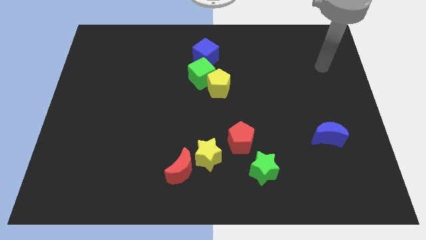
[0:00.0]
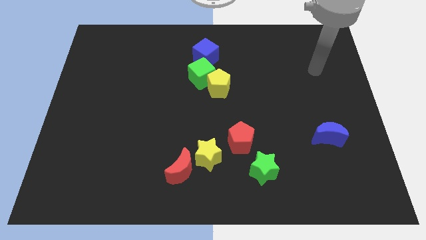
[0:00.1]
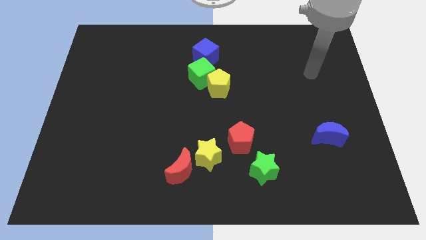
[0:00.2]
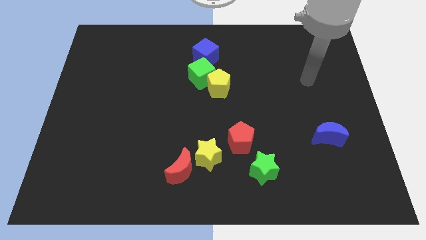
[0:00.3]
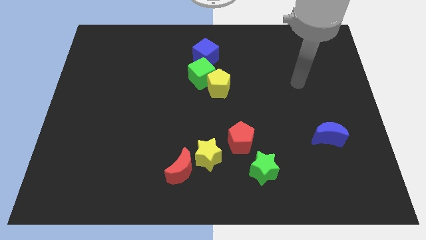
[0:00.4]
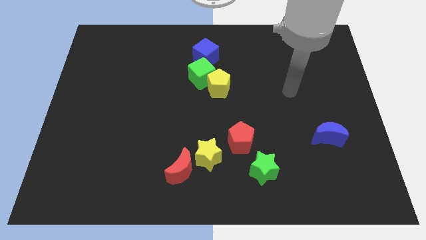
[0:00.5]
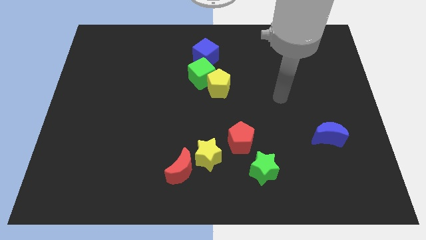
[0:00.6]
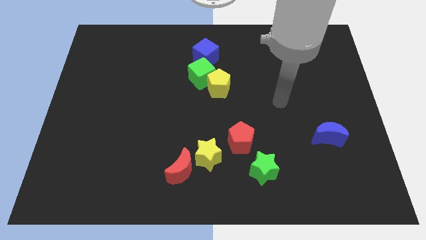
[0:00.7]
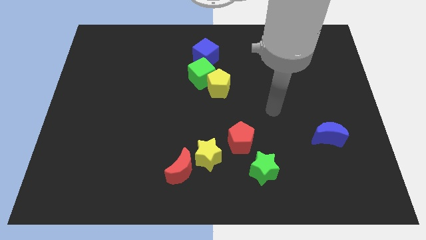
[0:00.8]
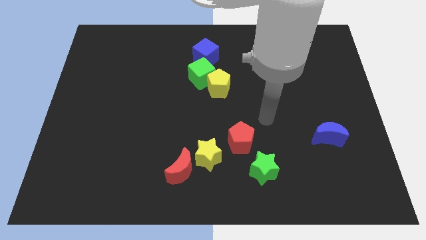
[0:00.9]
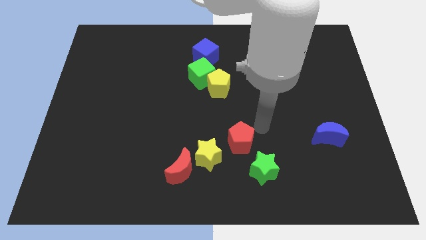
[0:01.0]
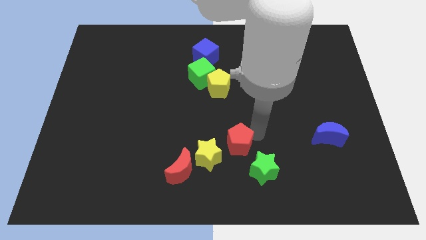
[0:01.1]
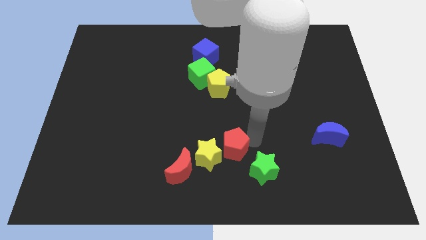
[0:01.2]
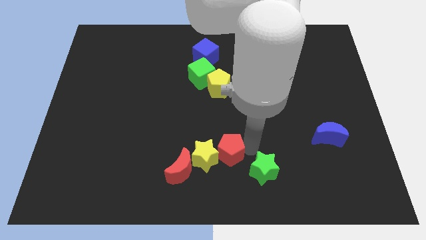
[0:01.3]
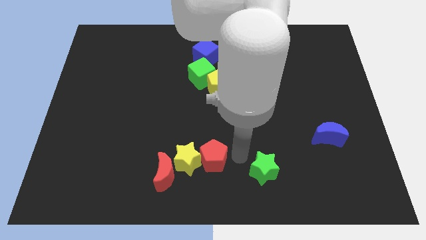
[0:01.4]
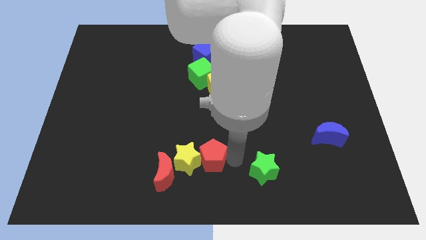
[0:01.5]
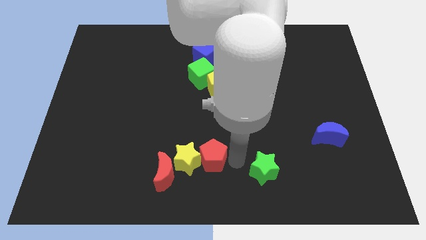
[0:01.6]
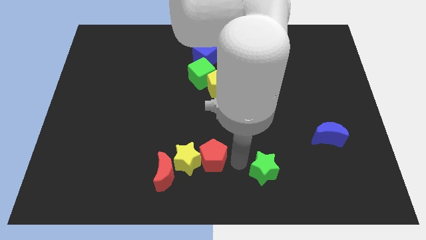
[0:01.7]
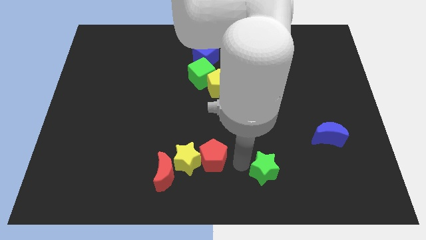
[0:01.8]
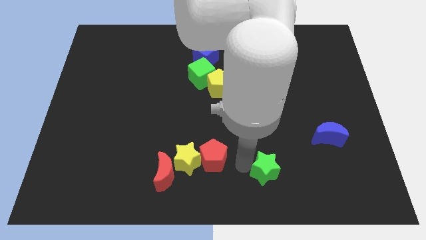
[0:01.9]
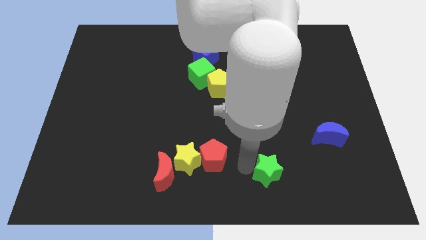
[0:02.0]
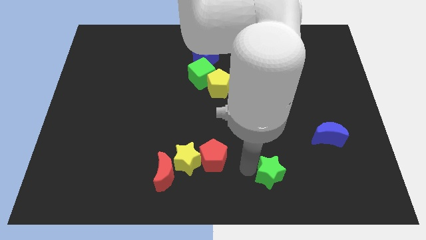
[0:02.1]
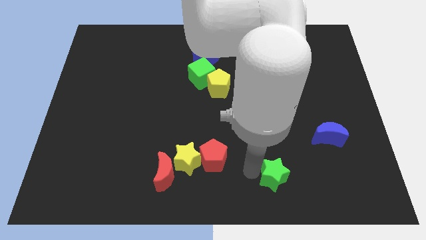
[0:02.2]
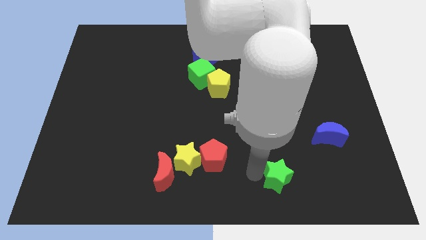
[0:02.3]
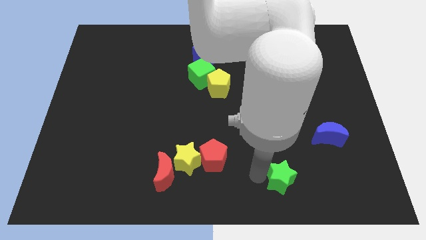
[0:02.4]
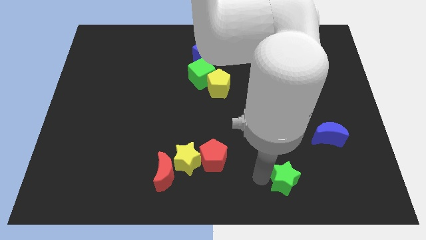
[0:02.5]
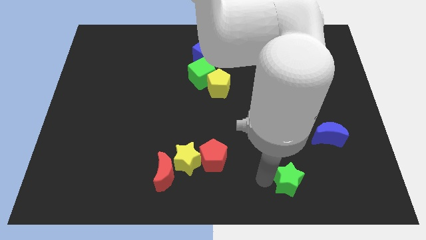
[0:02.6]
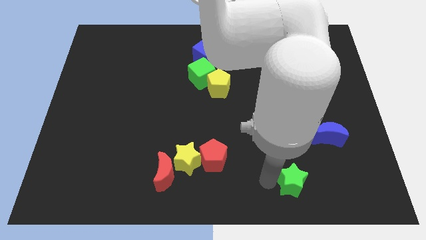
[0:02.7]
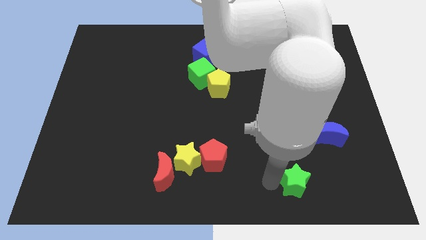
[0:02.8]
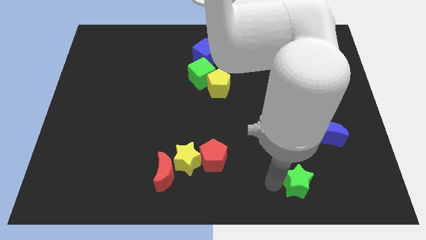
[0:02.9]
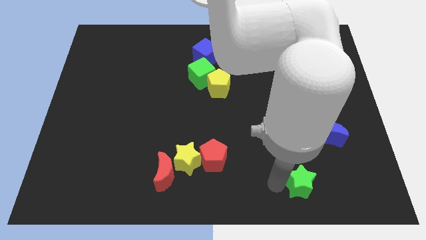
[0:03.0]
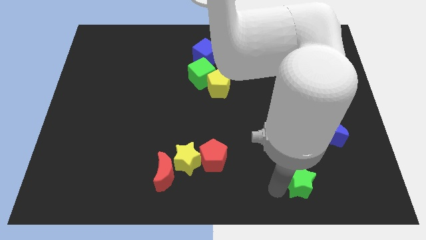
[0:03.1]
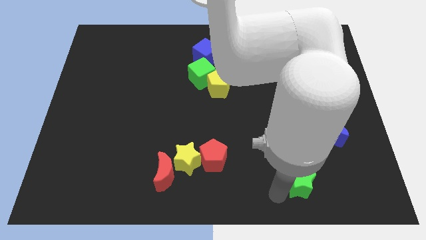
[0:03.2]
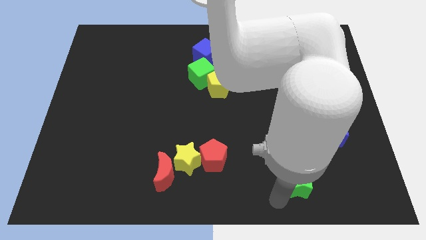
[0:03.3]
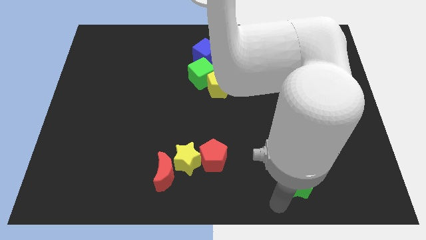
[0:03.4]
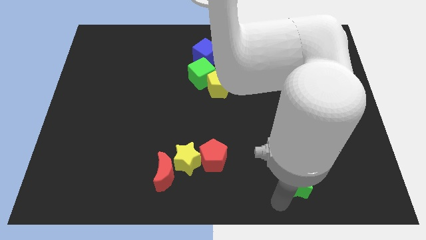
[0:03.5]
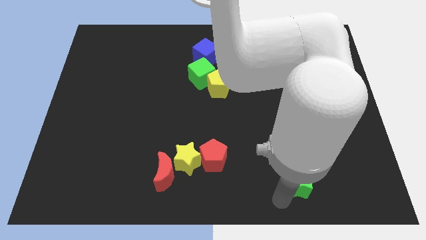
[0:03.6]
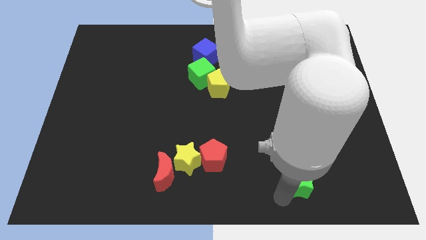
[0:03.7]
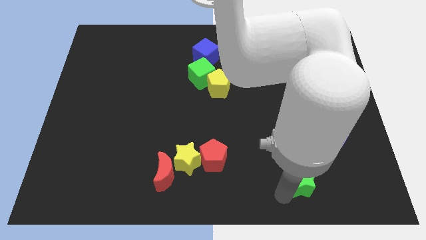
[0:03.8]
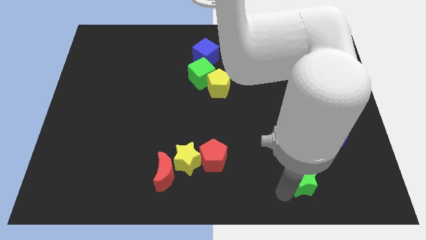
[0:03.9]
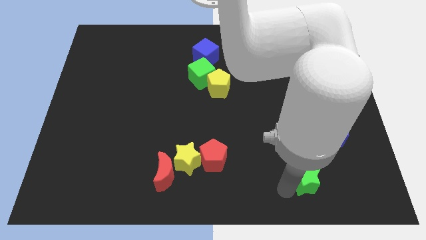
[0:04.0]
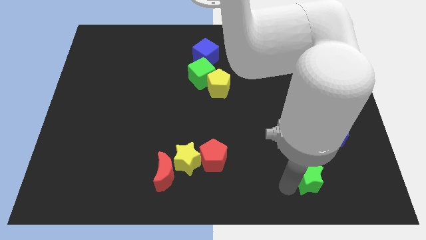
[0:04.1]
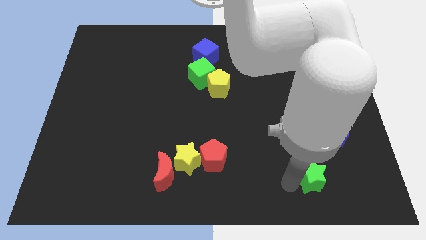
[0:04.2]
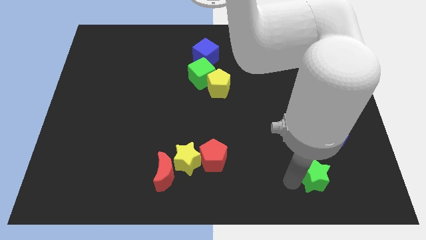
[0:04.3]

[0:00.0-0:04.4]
put the green star to the bottom side of the blue moon

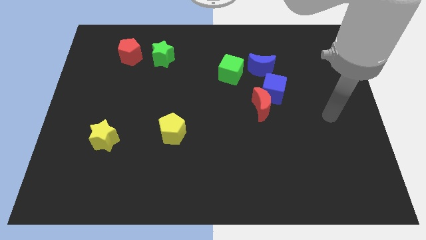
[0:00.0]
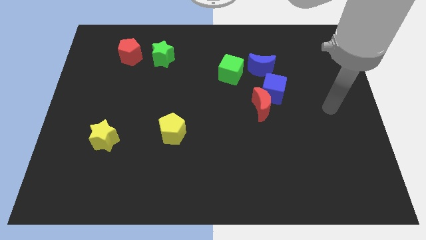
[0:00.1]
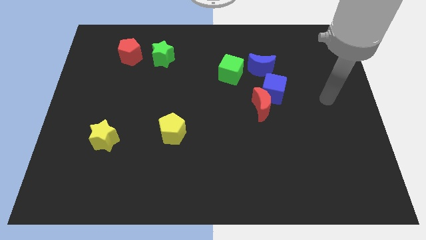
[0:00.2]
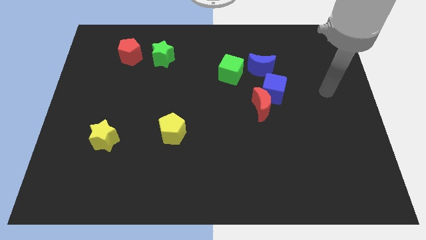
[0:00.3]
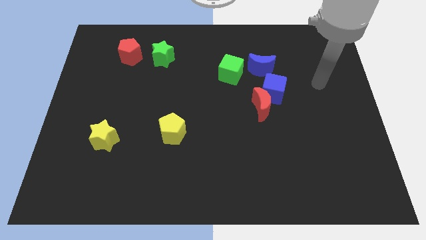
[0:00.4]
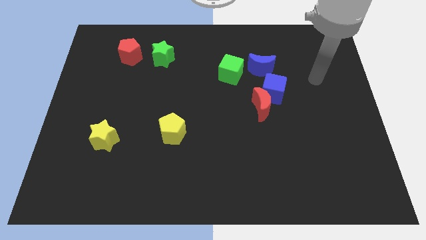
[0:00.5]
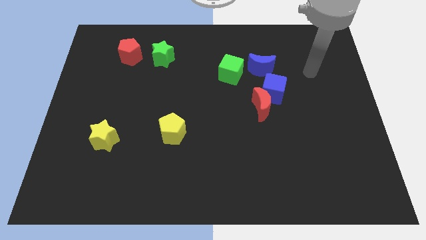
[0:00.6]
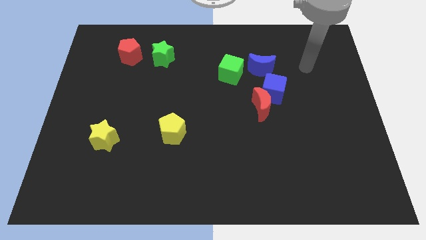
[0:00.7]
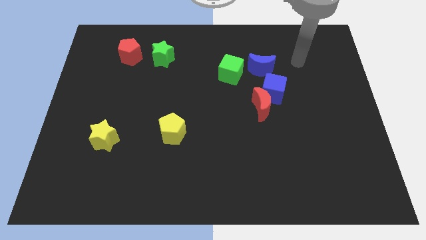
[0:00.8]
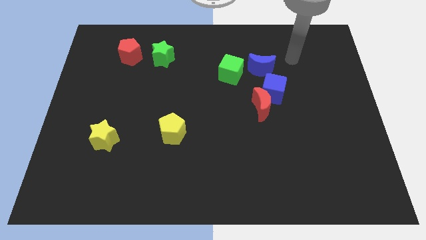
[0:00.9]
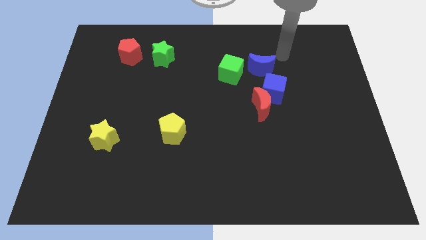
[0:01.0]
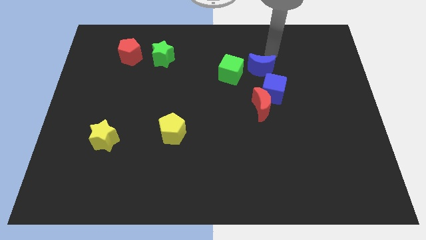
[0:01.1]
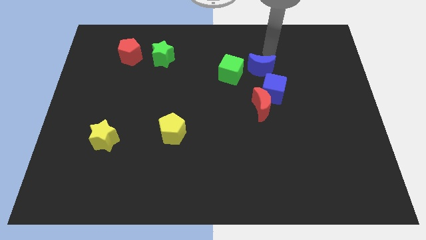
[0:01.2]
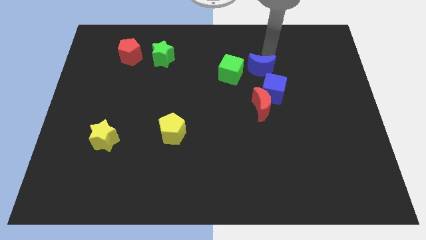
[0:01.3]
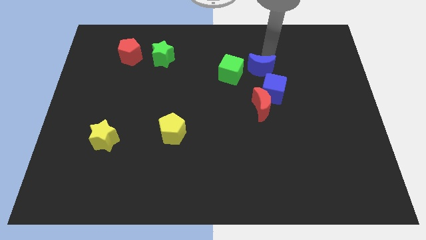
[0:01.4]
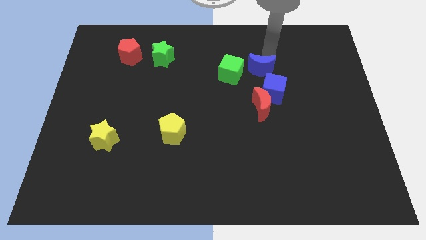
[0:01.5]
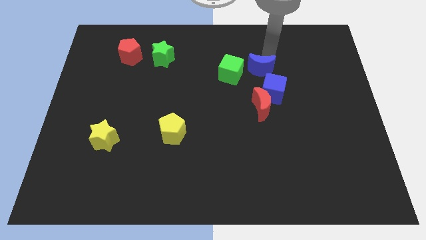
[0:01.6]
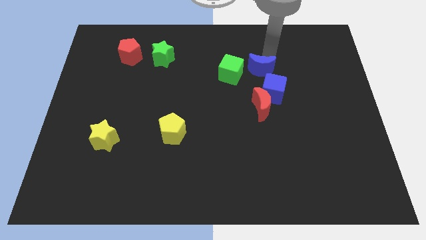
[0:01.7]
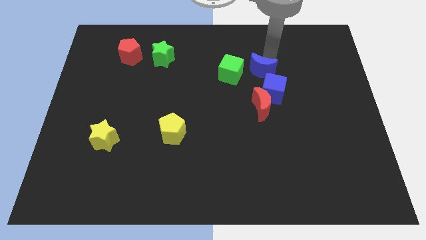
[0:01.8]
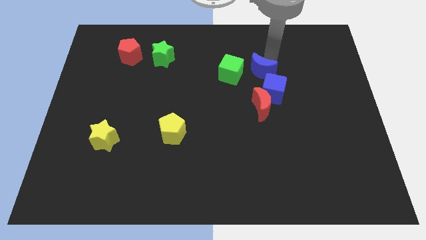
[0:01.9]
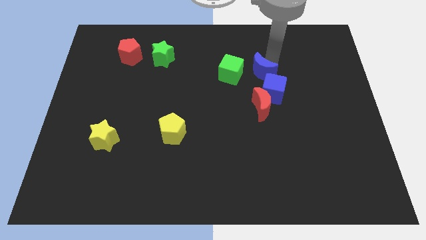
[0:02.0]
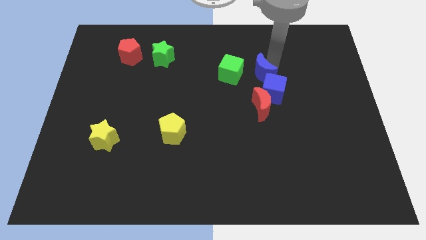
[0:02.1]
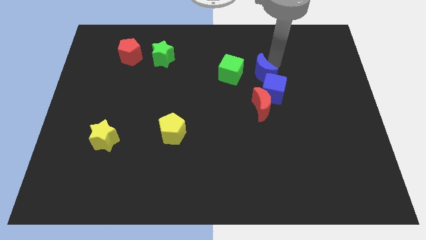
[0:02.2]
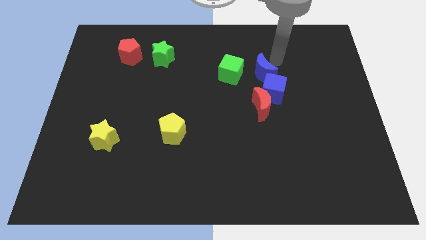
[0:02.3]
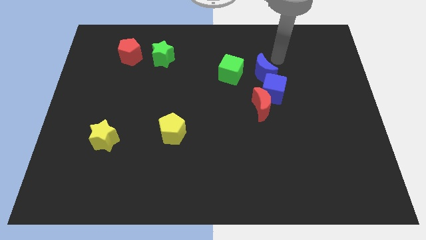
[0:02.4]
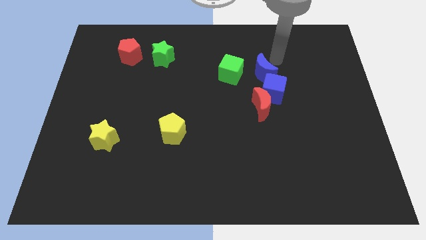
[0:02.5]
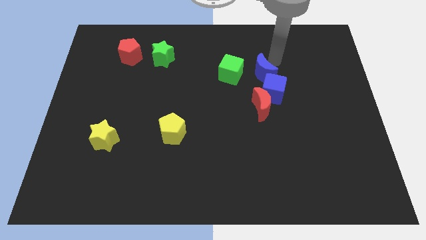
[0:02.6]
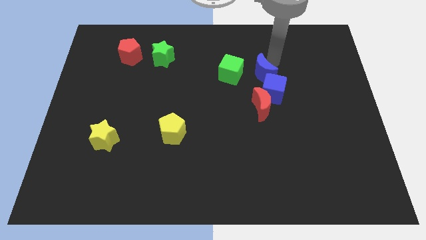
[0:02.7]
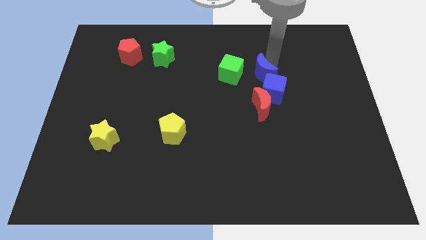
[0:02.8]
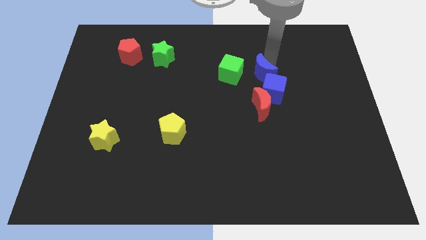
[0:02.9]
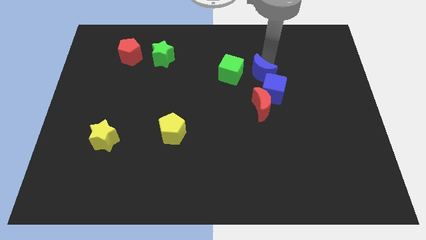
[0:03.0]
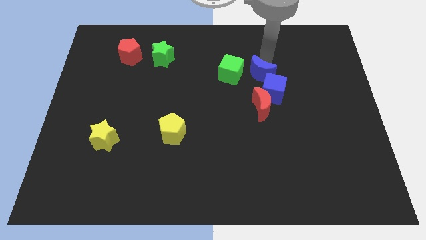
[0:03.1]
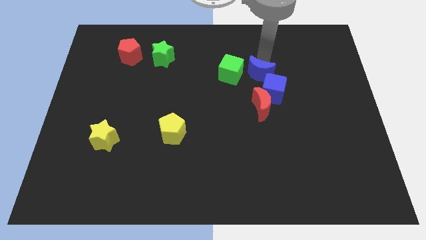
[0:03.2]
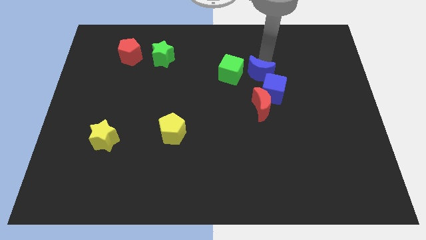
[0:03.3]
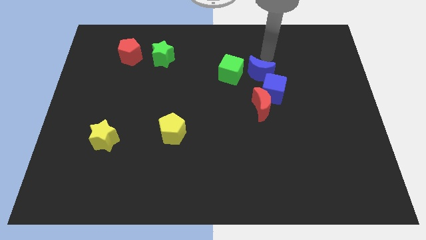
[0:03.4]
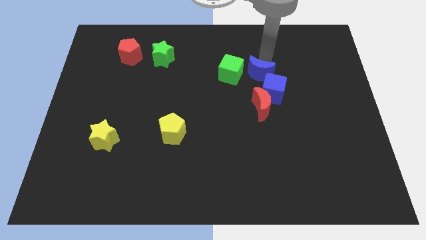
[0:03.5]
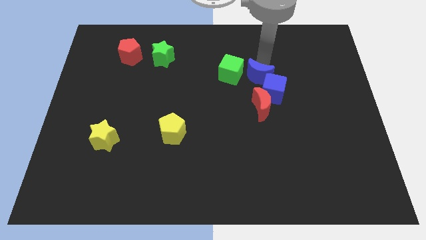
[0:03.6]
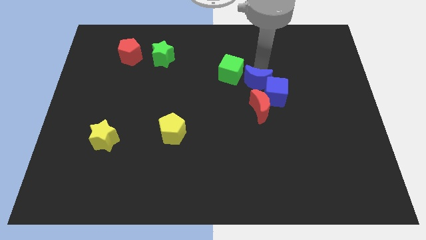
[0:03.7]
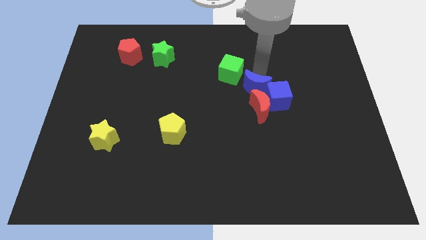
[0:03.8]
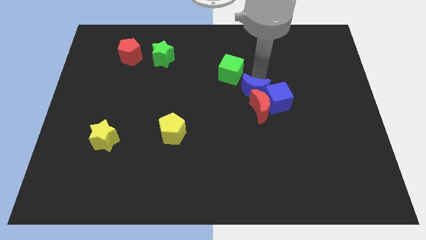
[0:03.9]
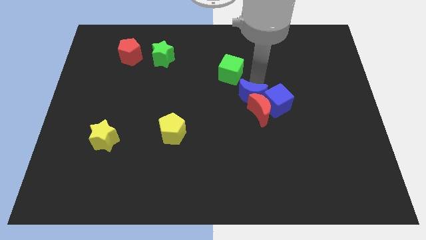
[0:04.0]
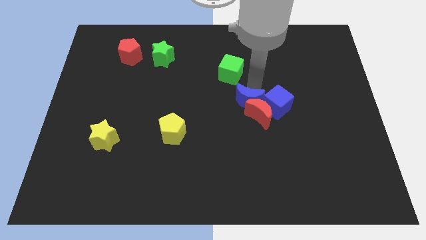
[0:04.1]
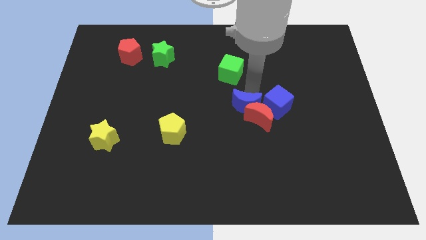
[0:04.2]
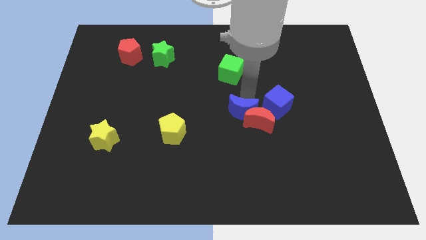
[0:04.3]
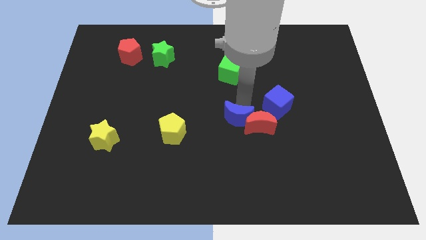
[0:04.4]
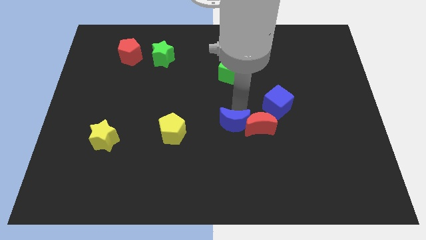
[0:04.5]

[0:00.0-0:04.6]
push the blue moon to the bottom left of the red moon
